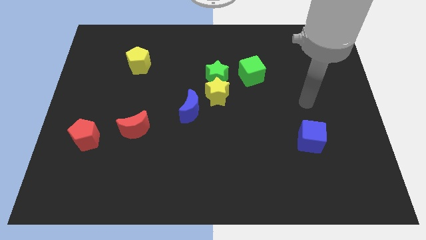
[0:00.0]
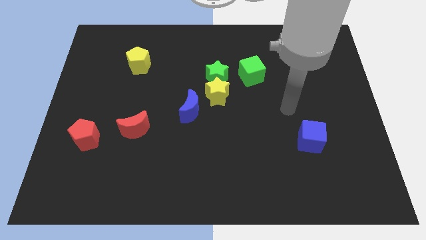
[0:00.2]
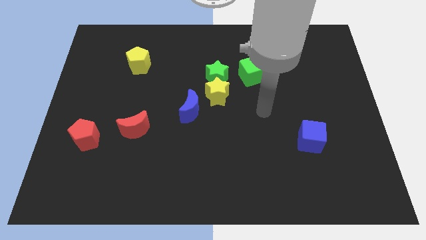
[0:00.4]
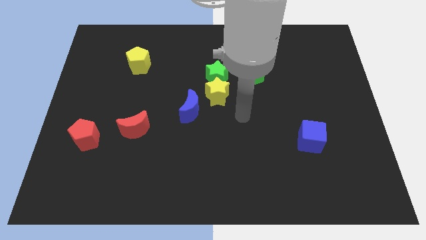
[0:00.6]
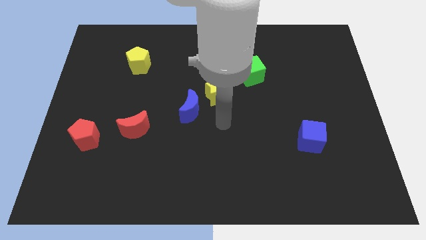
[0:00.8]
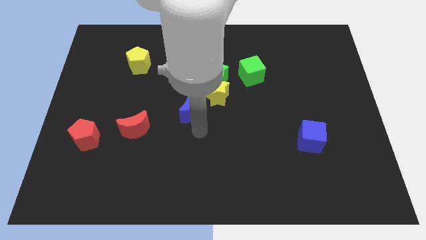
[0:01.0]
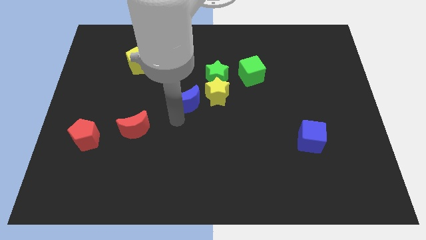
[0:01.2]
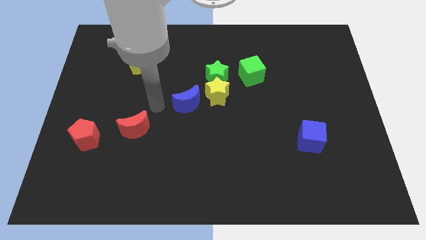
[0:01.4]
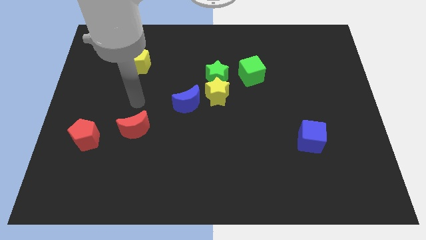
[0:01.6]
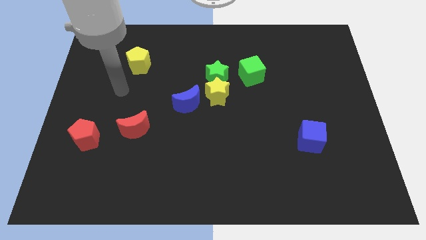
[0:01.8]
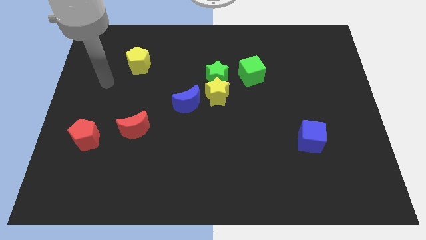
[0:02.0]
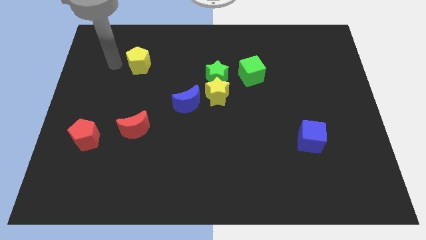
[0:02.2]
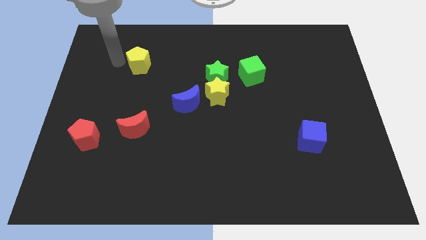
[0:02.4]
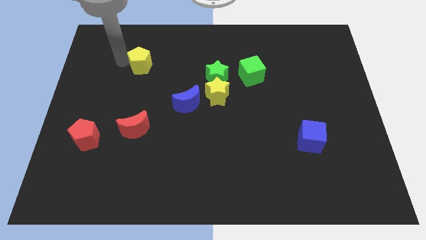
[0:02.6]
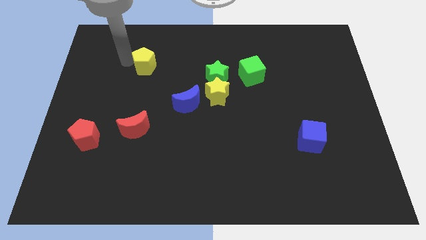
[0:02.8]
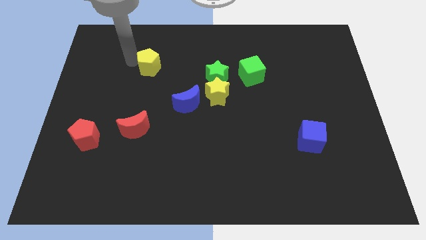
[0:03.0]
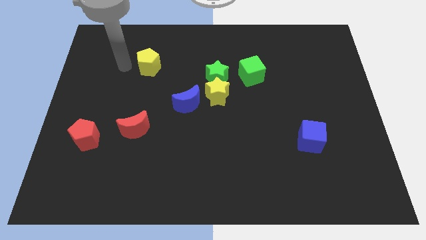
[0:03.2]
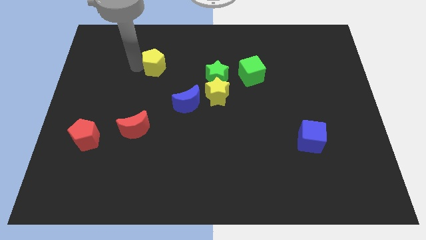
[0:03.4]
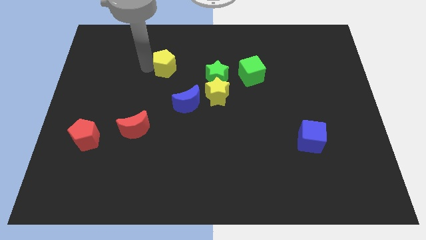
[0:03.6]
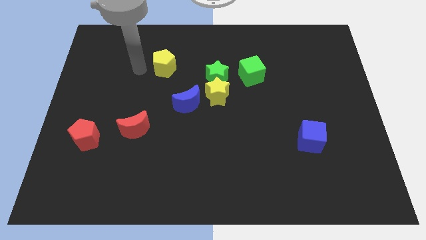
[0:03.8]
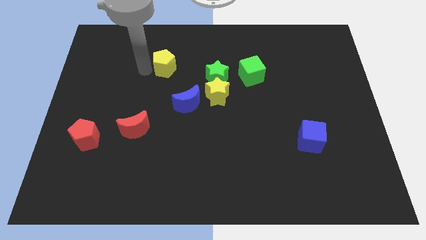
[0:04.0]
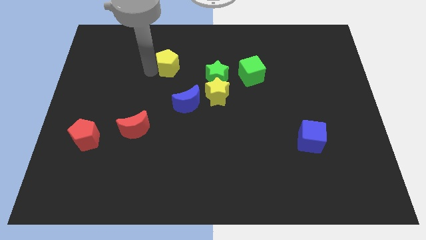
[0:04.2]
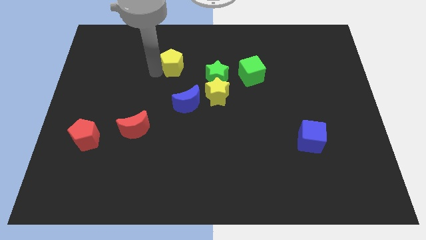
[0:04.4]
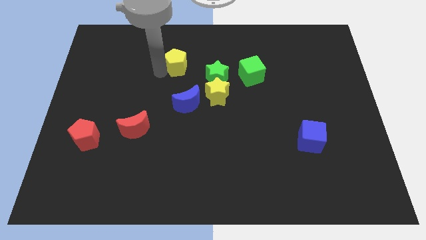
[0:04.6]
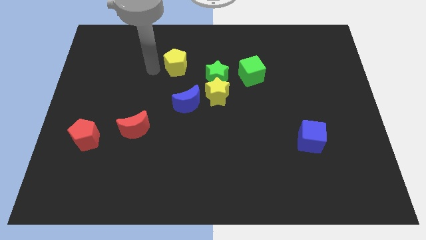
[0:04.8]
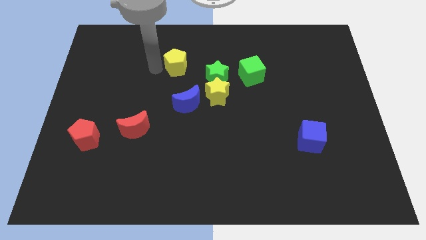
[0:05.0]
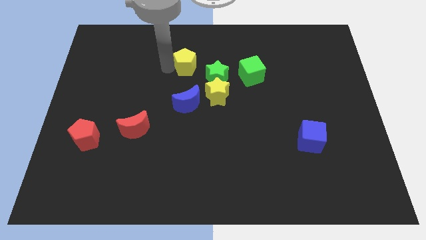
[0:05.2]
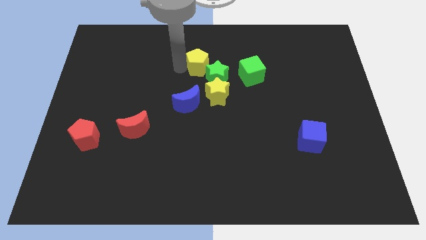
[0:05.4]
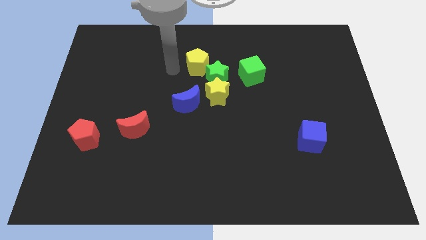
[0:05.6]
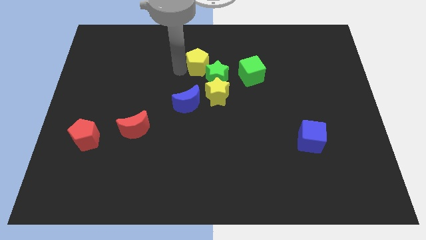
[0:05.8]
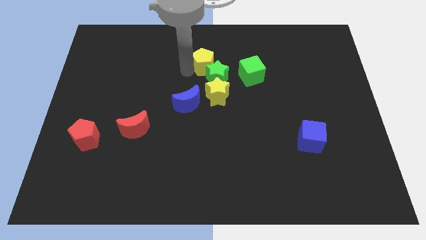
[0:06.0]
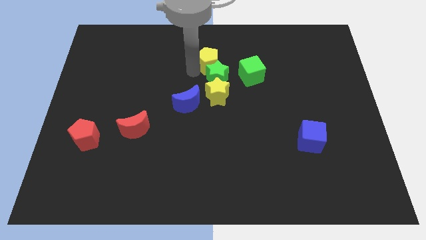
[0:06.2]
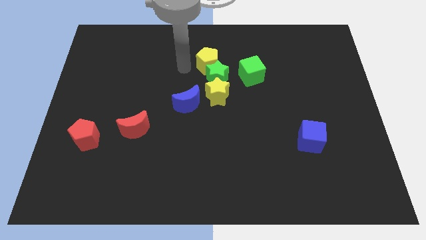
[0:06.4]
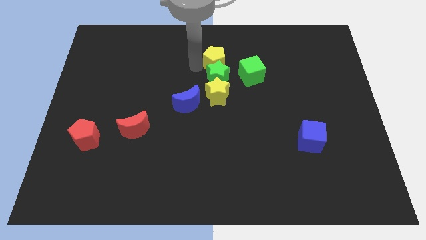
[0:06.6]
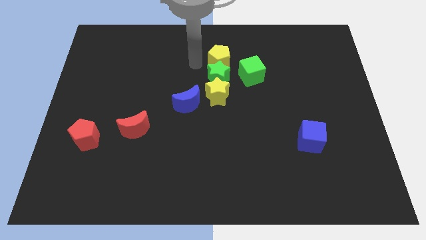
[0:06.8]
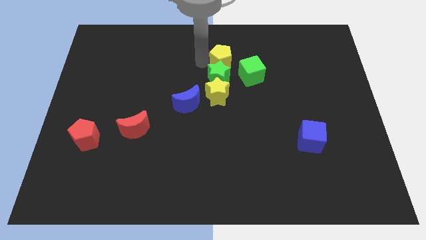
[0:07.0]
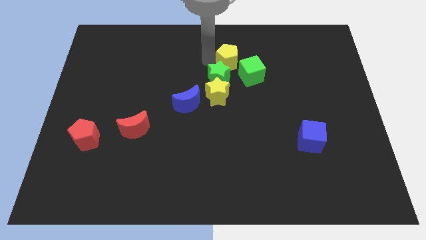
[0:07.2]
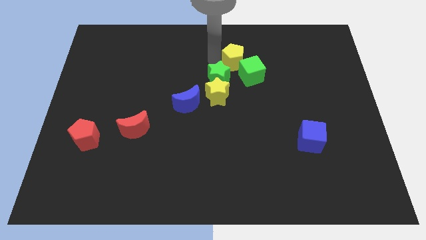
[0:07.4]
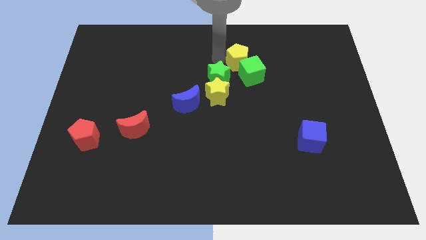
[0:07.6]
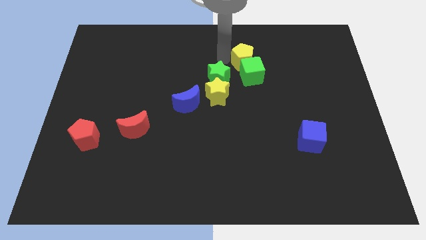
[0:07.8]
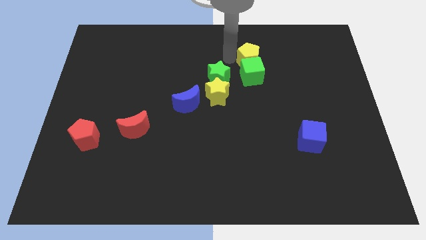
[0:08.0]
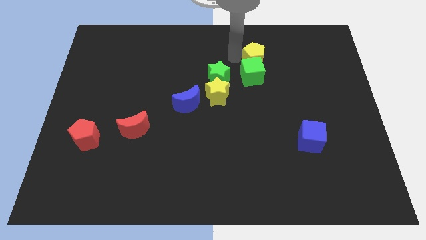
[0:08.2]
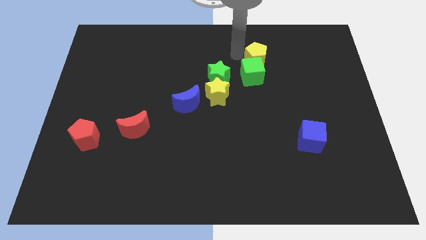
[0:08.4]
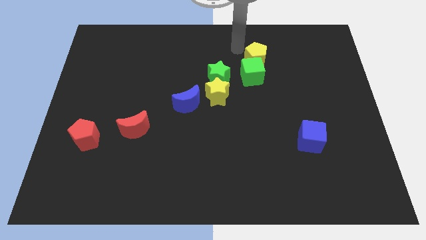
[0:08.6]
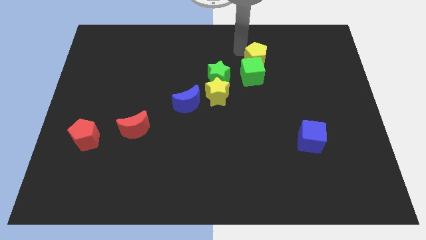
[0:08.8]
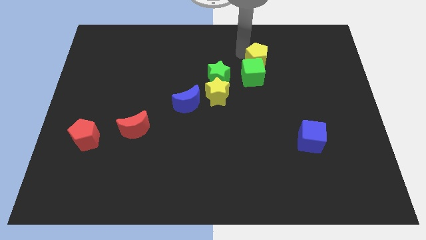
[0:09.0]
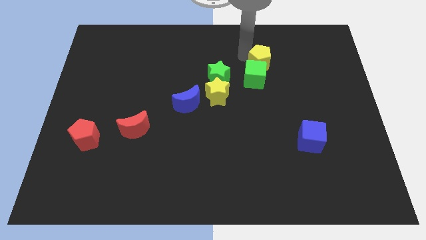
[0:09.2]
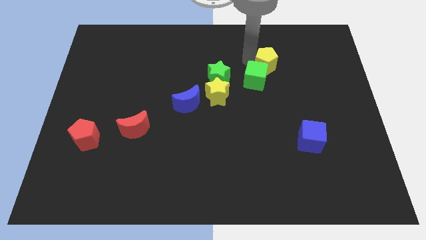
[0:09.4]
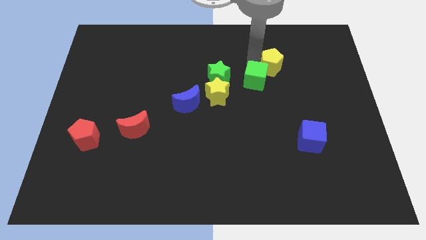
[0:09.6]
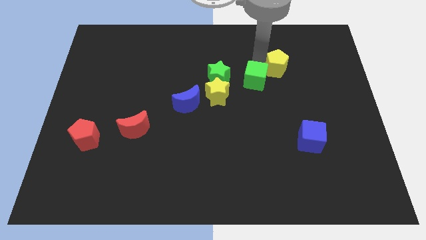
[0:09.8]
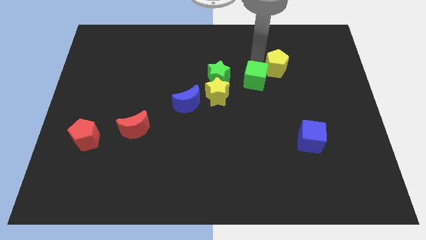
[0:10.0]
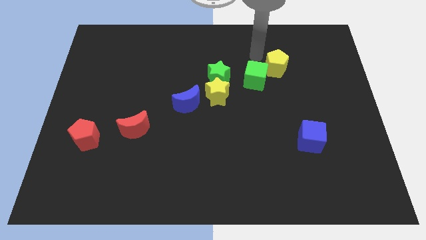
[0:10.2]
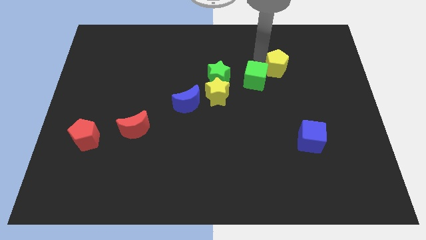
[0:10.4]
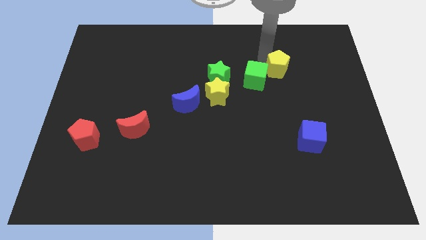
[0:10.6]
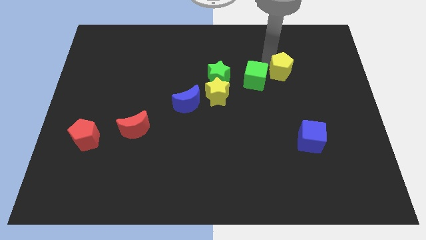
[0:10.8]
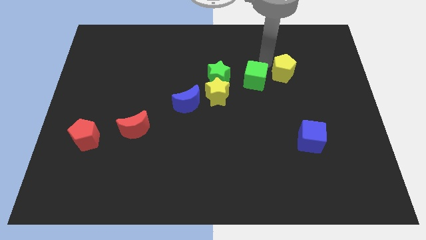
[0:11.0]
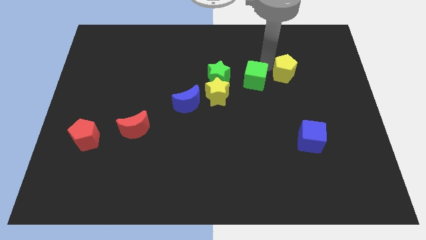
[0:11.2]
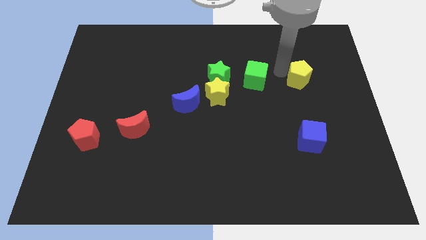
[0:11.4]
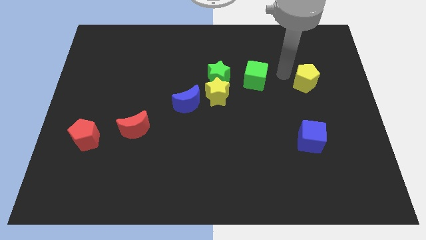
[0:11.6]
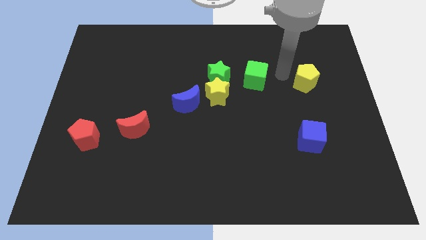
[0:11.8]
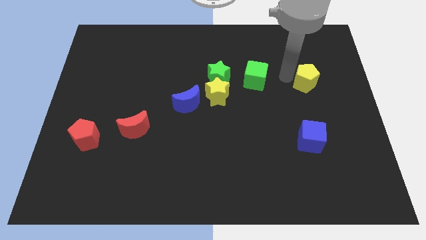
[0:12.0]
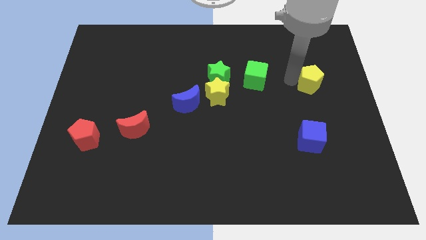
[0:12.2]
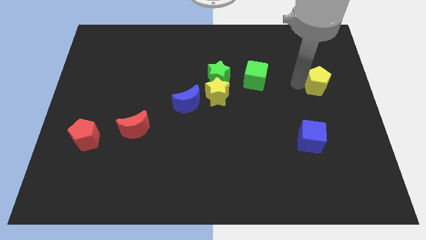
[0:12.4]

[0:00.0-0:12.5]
put the yellow pentagon to the right side
